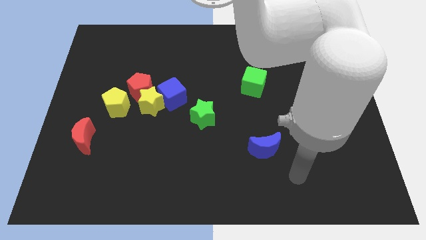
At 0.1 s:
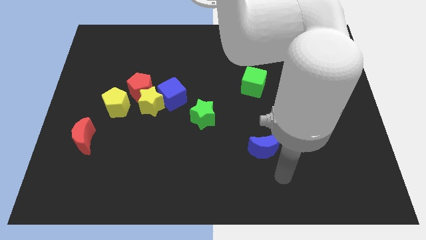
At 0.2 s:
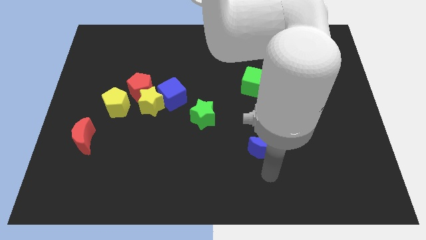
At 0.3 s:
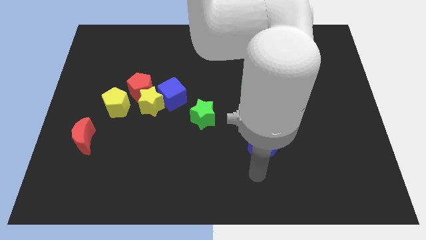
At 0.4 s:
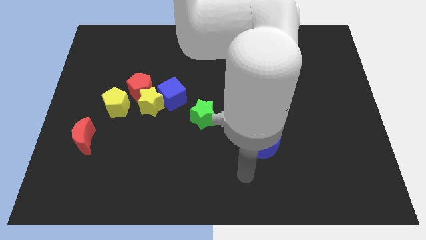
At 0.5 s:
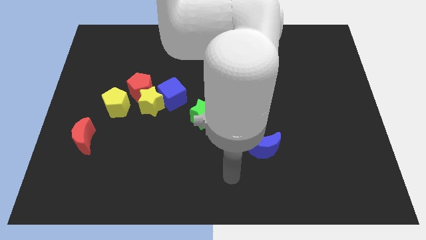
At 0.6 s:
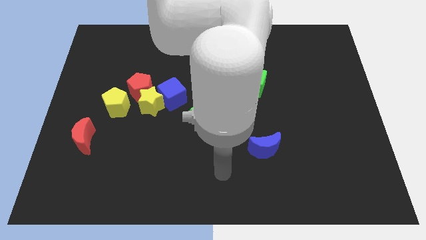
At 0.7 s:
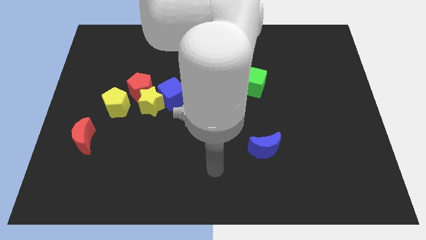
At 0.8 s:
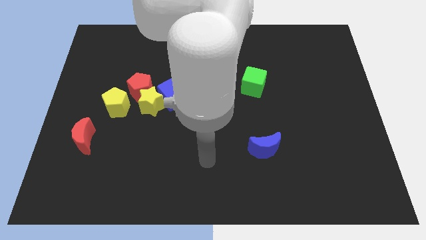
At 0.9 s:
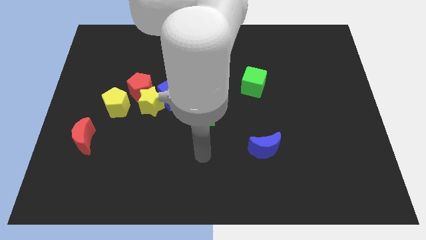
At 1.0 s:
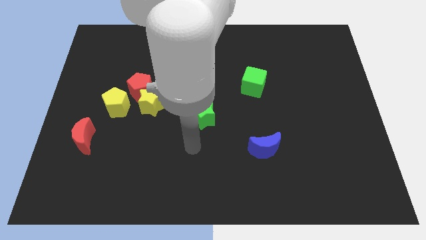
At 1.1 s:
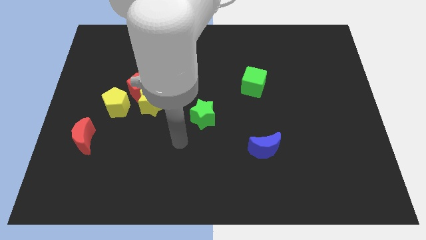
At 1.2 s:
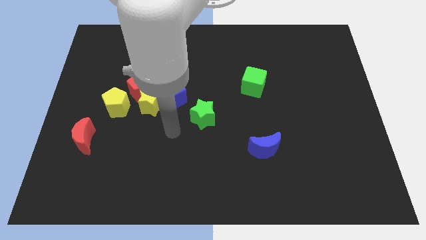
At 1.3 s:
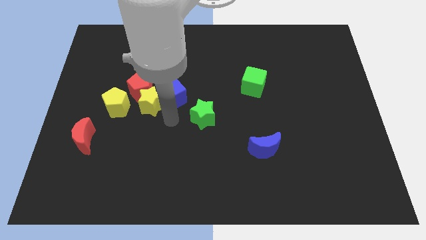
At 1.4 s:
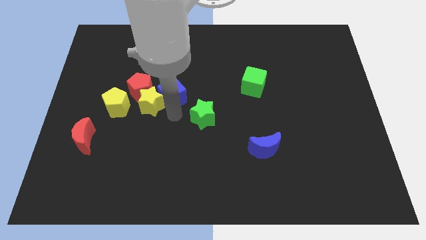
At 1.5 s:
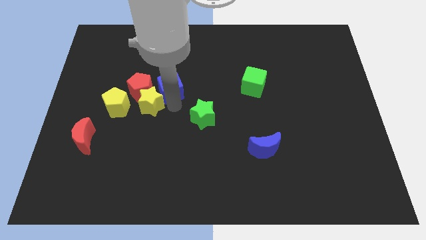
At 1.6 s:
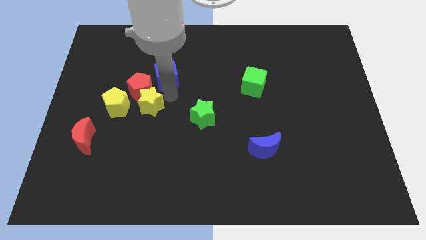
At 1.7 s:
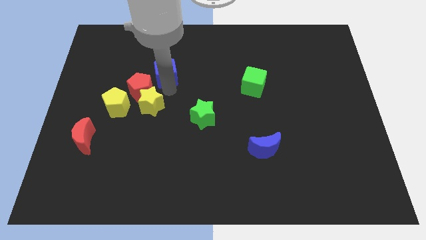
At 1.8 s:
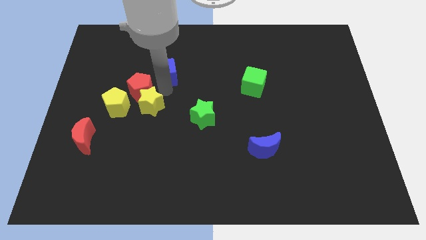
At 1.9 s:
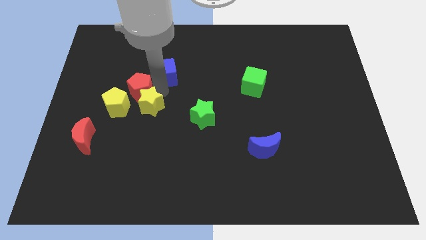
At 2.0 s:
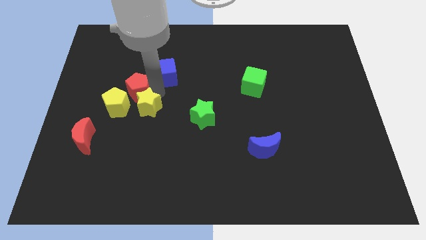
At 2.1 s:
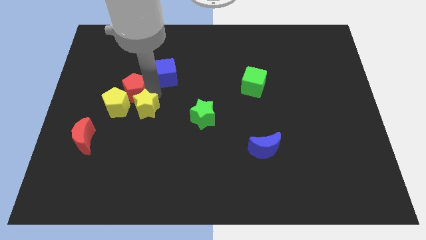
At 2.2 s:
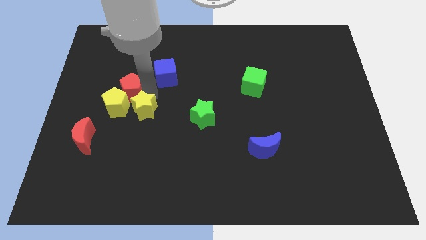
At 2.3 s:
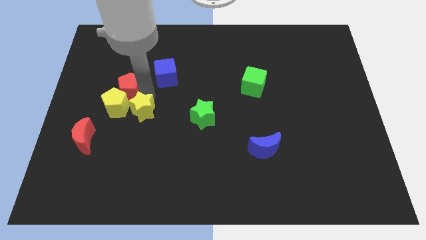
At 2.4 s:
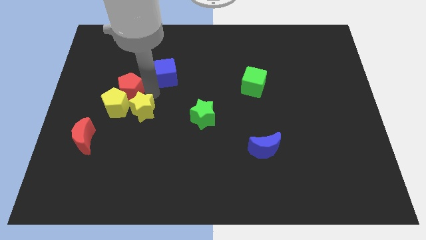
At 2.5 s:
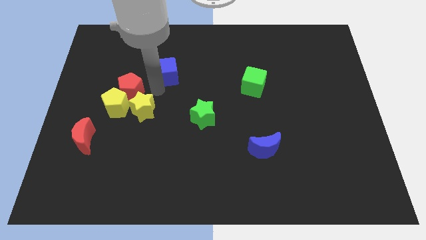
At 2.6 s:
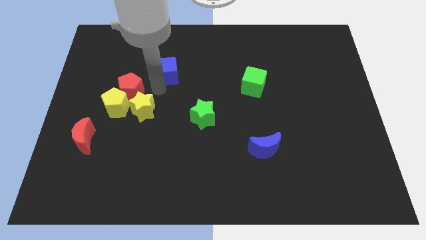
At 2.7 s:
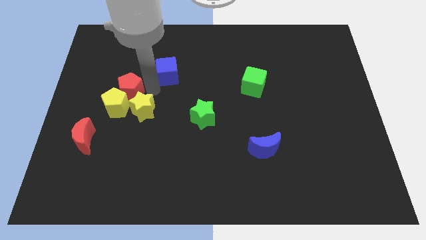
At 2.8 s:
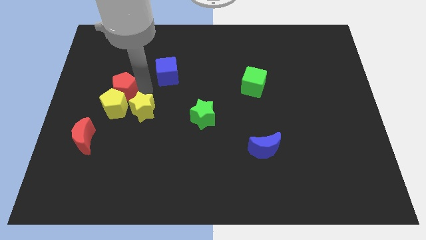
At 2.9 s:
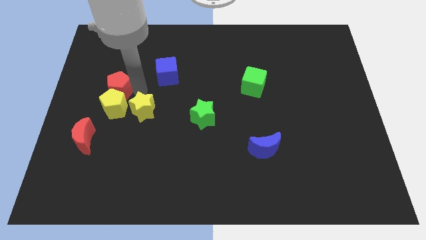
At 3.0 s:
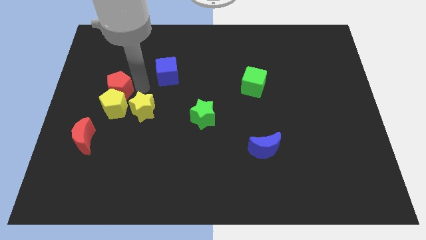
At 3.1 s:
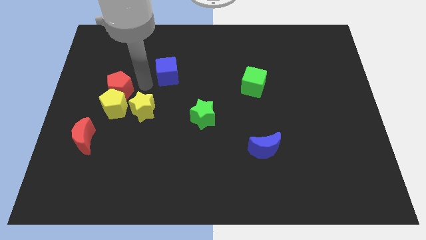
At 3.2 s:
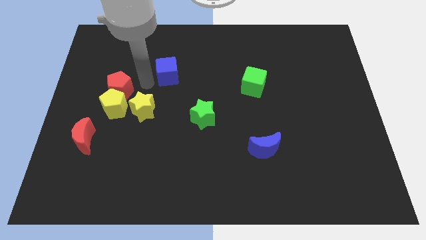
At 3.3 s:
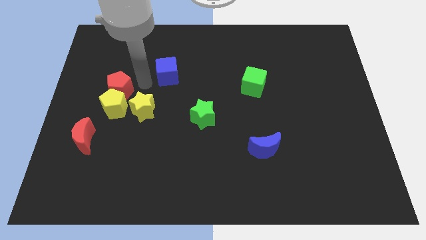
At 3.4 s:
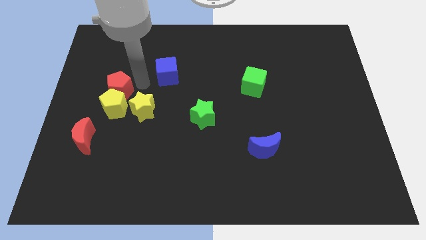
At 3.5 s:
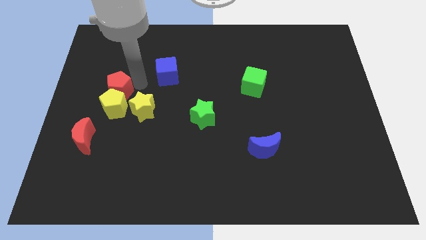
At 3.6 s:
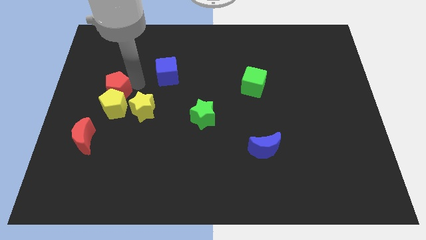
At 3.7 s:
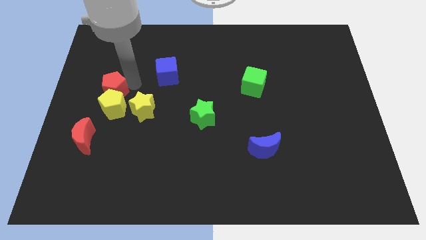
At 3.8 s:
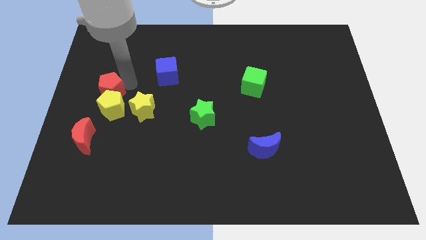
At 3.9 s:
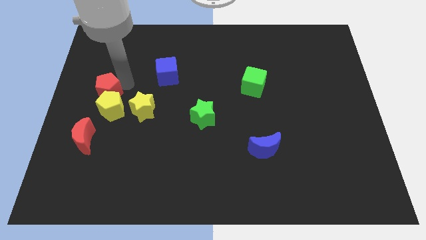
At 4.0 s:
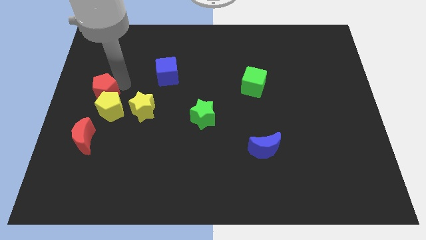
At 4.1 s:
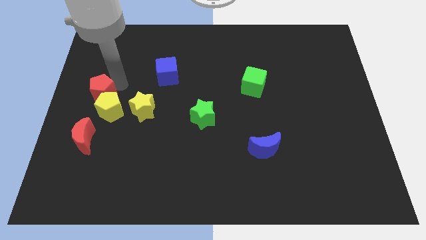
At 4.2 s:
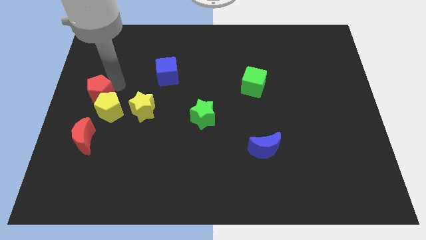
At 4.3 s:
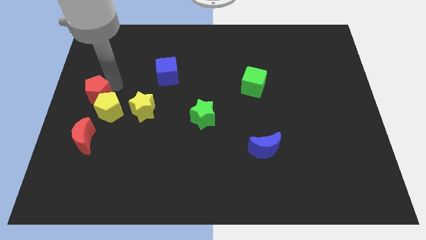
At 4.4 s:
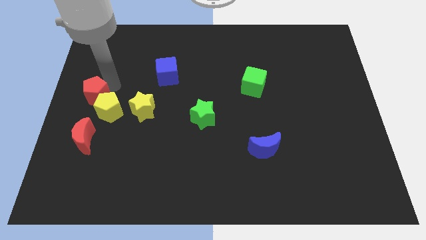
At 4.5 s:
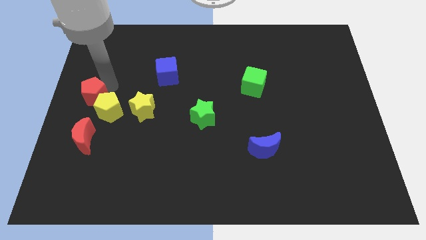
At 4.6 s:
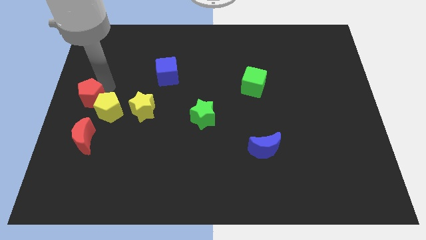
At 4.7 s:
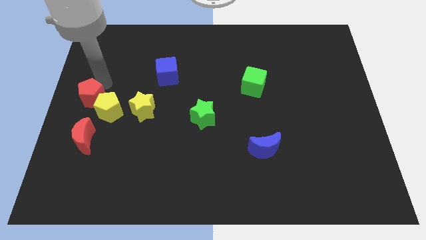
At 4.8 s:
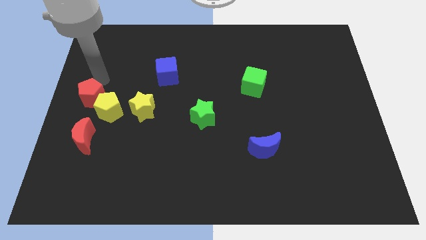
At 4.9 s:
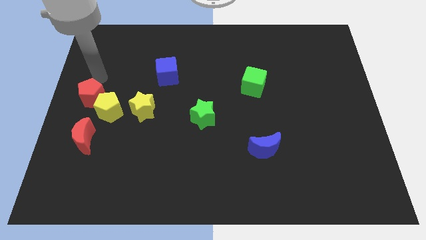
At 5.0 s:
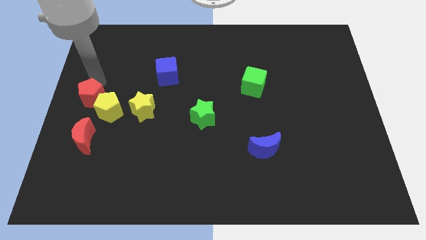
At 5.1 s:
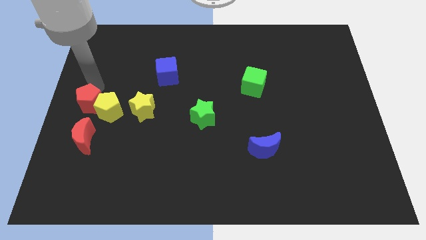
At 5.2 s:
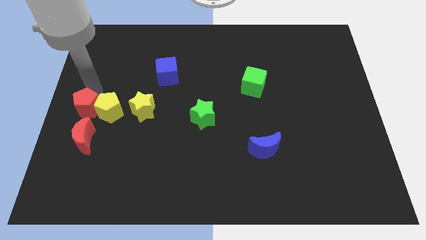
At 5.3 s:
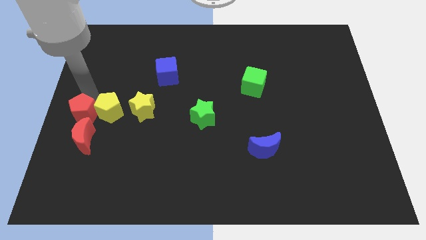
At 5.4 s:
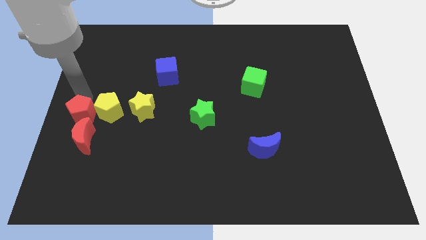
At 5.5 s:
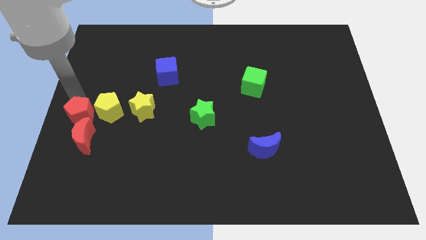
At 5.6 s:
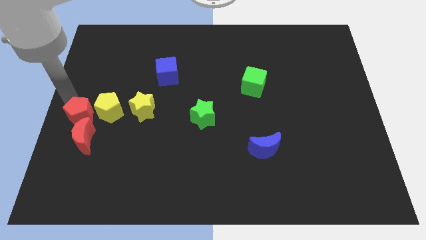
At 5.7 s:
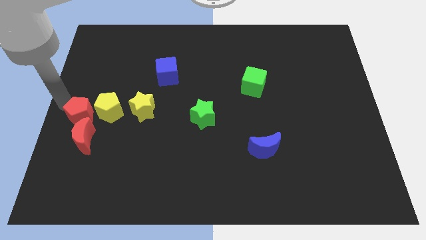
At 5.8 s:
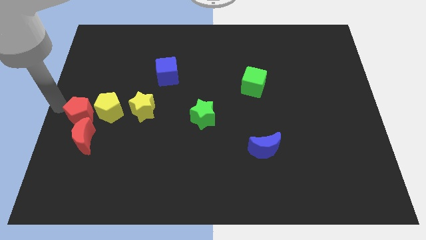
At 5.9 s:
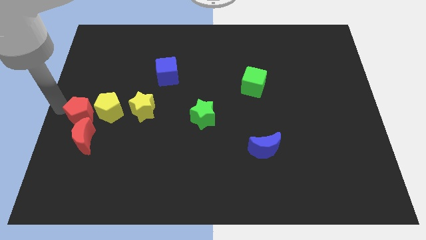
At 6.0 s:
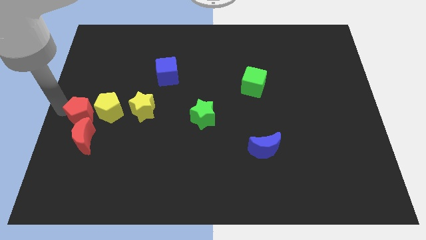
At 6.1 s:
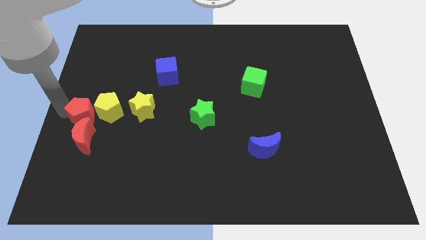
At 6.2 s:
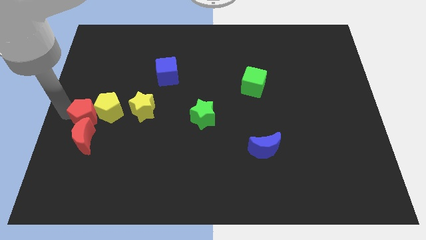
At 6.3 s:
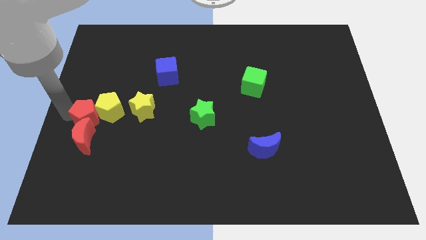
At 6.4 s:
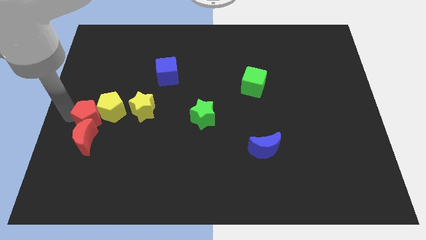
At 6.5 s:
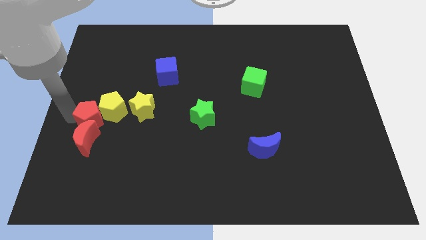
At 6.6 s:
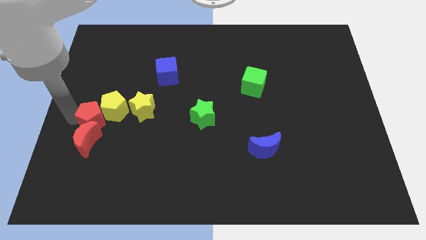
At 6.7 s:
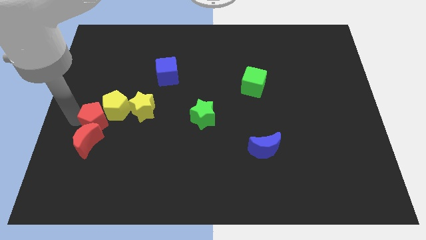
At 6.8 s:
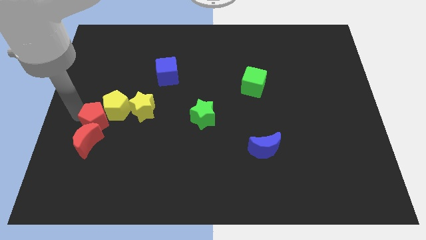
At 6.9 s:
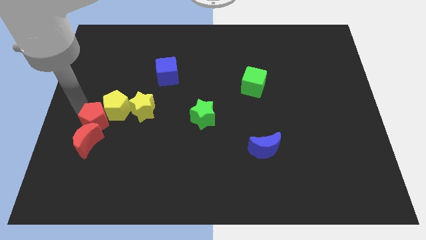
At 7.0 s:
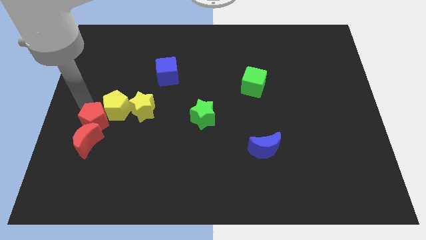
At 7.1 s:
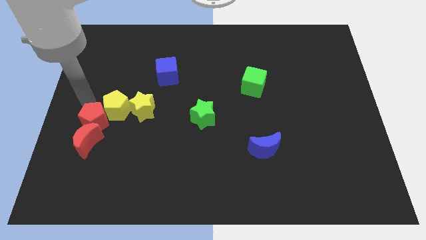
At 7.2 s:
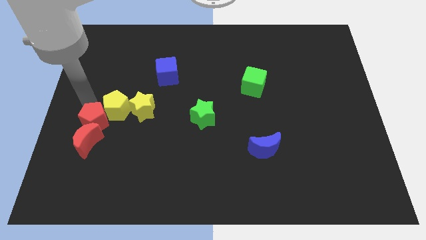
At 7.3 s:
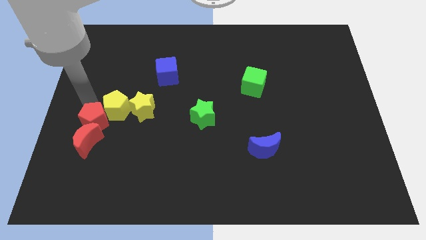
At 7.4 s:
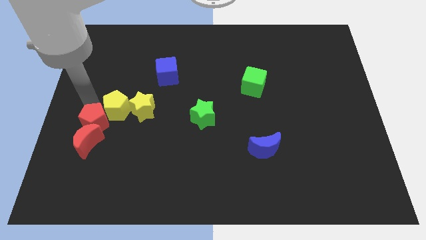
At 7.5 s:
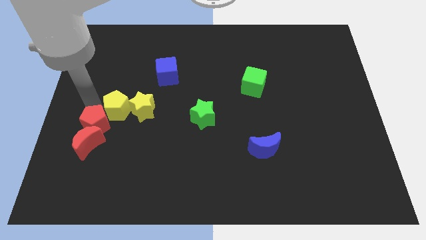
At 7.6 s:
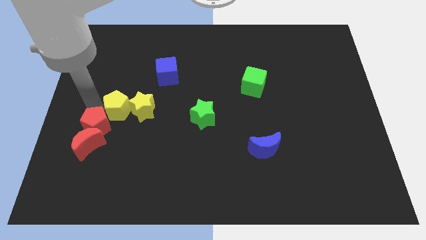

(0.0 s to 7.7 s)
slightly push the red pentagon downwards

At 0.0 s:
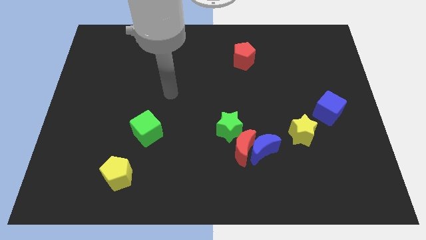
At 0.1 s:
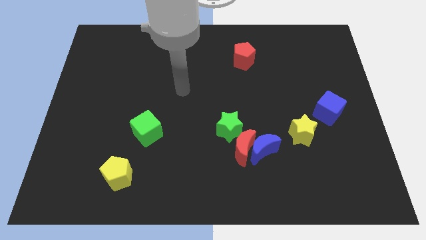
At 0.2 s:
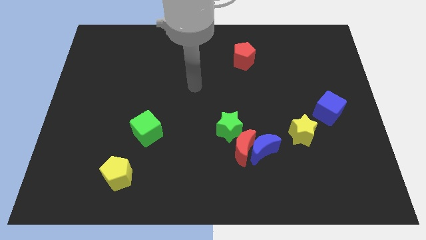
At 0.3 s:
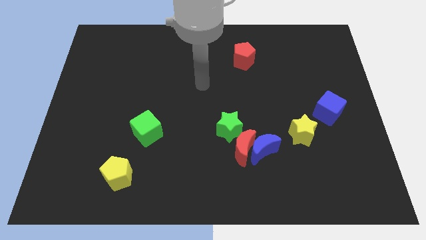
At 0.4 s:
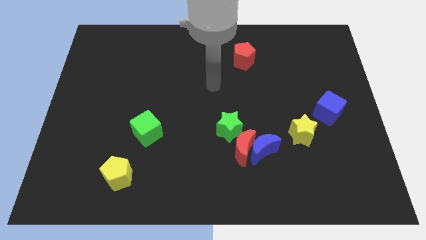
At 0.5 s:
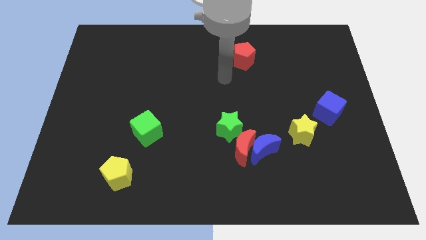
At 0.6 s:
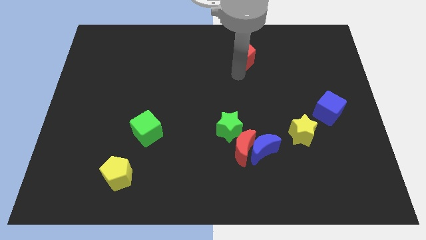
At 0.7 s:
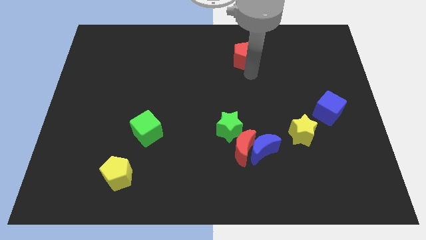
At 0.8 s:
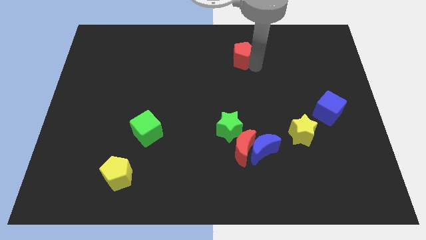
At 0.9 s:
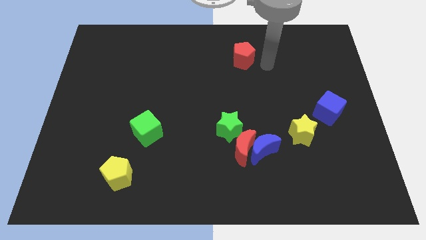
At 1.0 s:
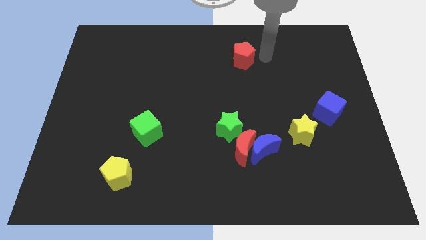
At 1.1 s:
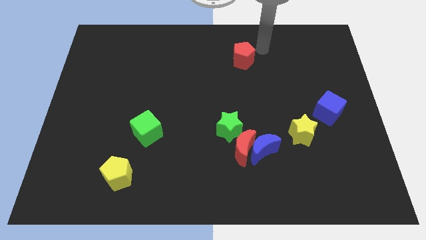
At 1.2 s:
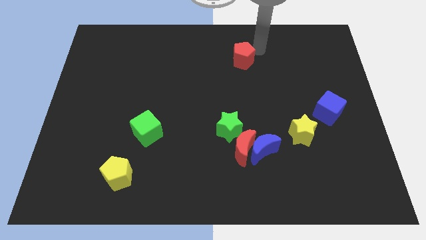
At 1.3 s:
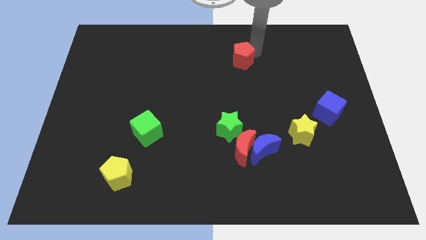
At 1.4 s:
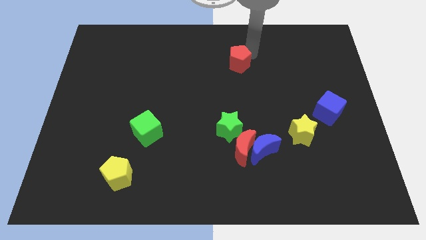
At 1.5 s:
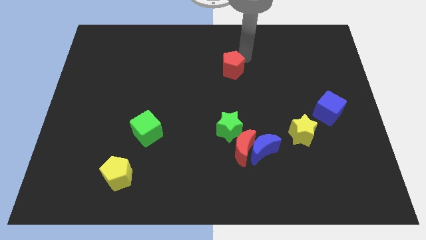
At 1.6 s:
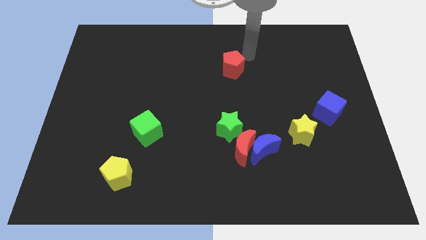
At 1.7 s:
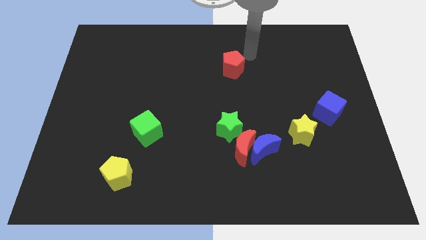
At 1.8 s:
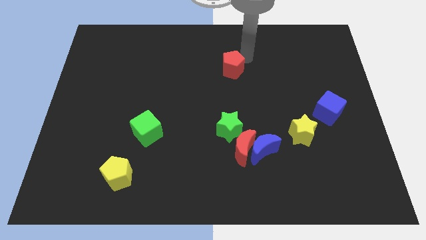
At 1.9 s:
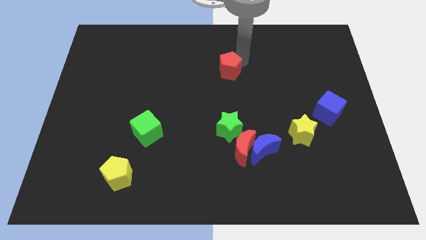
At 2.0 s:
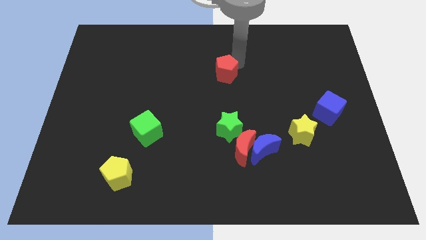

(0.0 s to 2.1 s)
slide the red pentagon a bit downwards and then to the left
